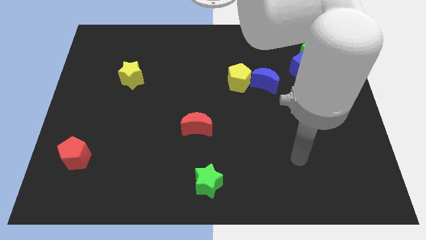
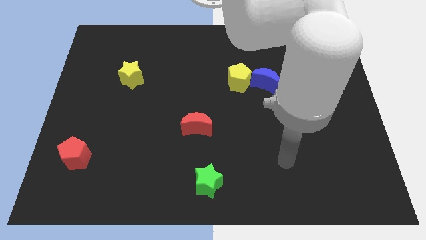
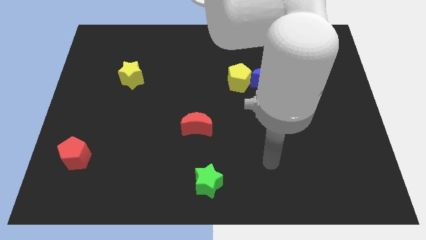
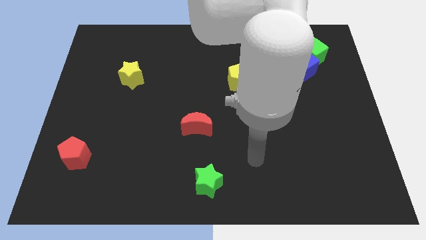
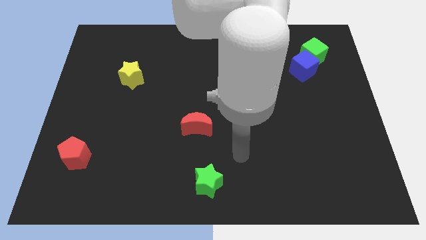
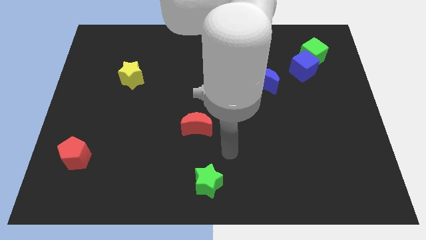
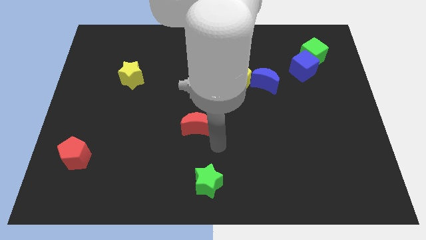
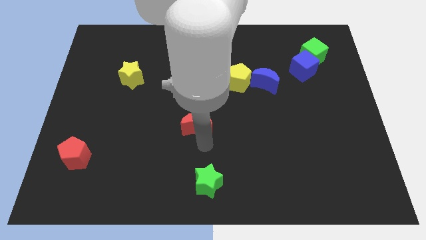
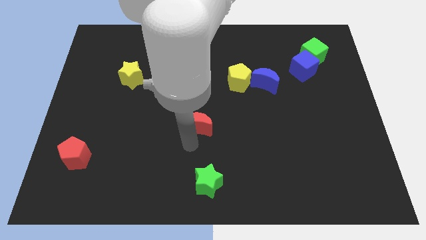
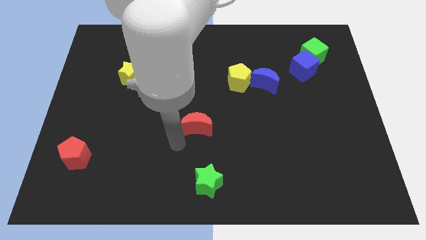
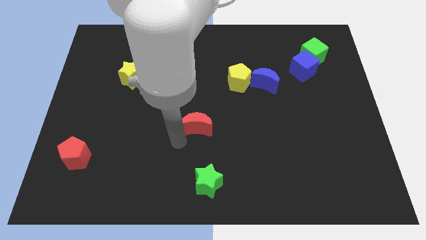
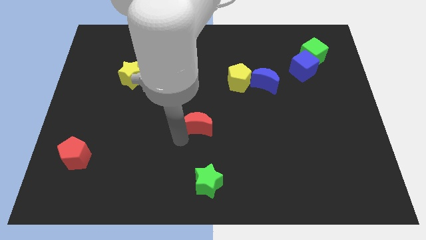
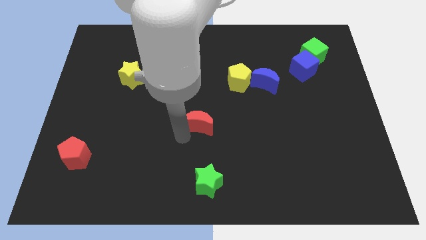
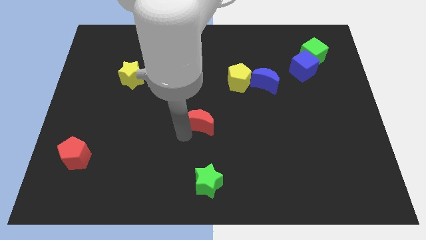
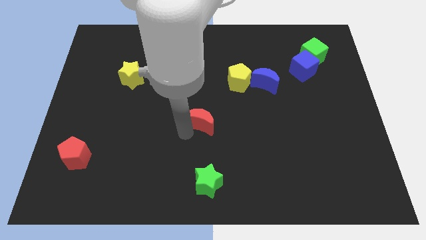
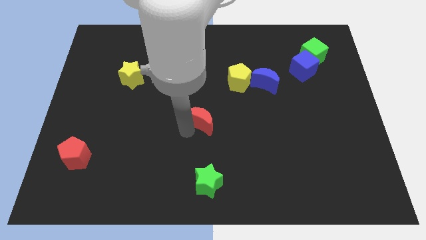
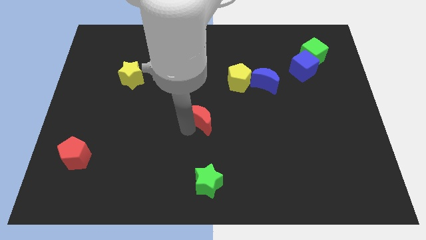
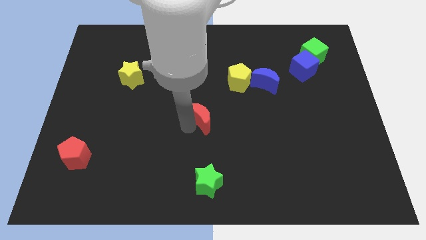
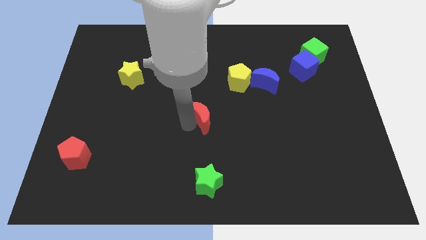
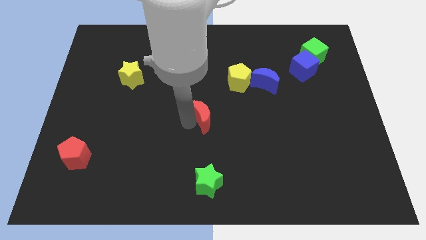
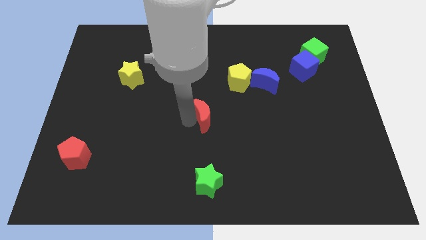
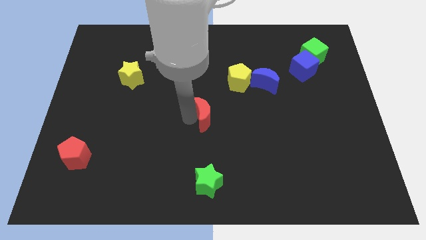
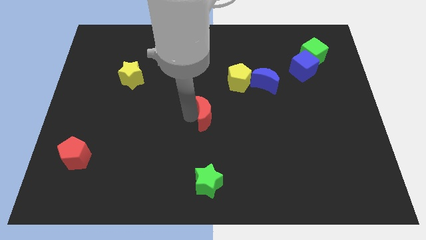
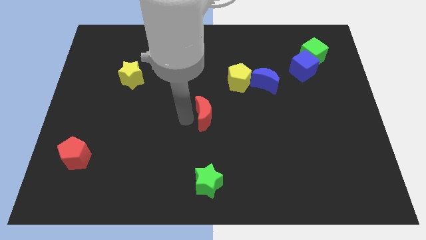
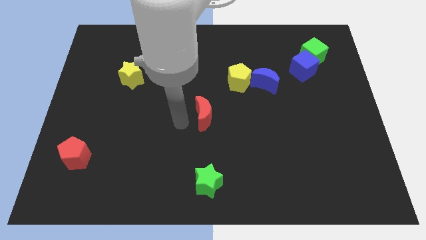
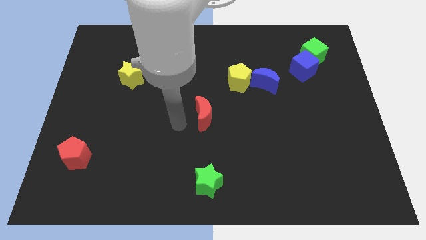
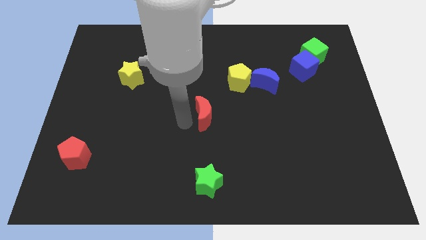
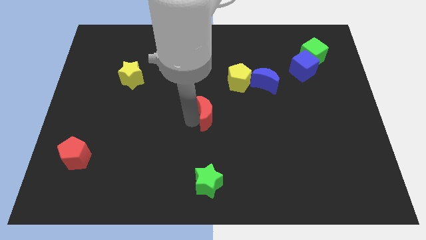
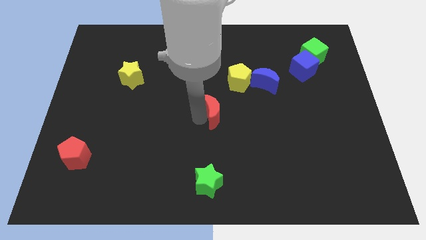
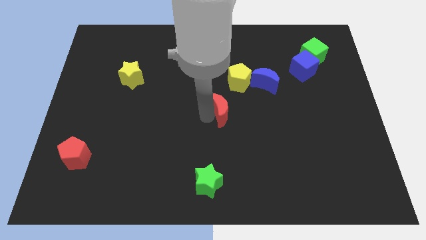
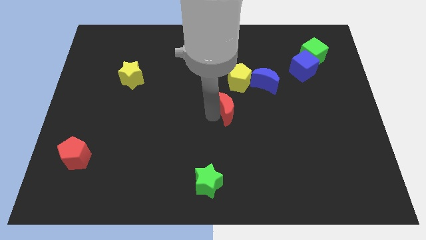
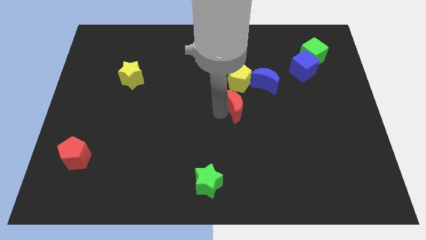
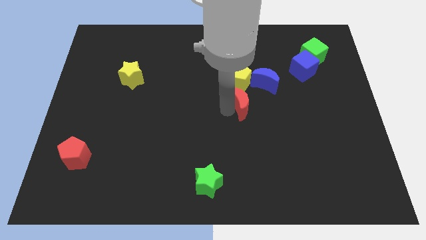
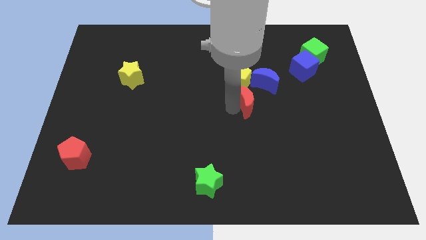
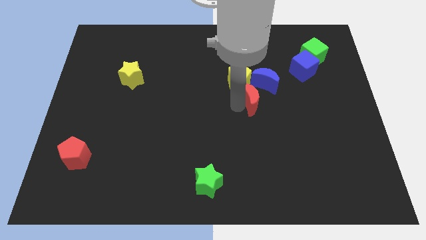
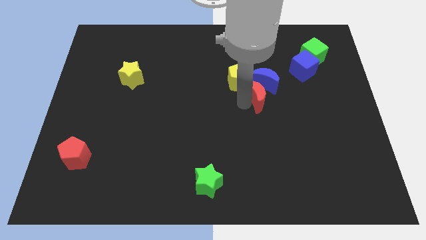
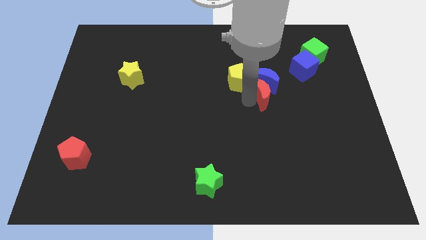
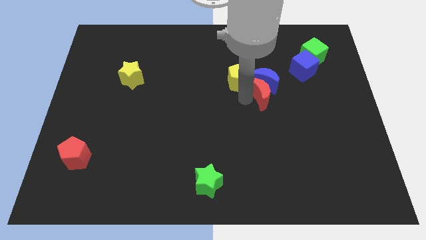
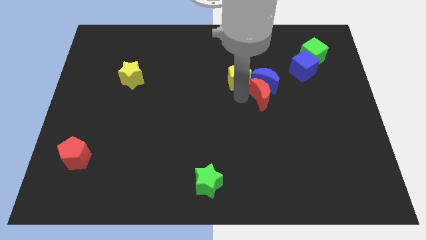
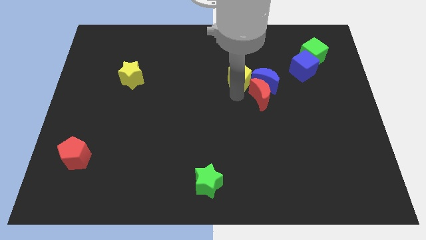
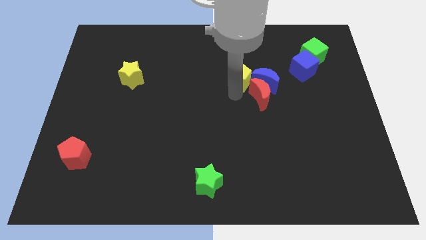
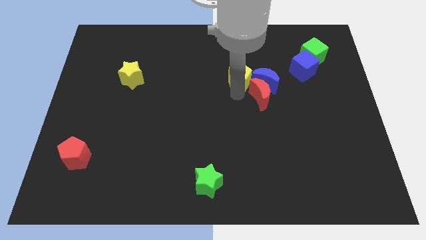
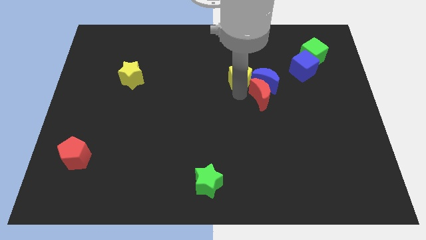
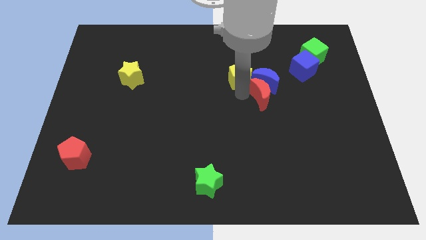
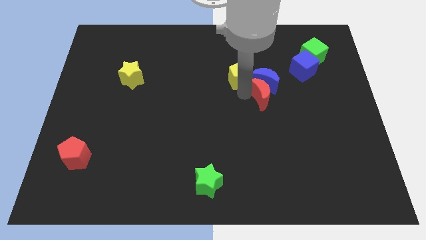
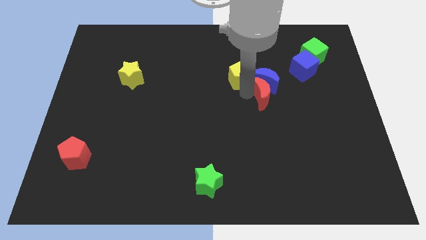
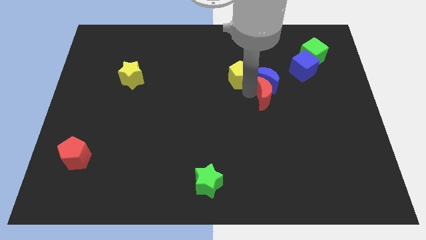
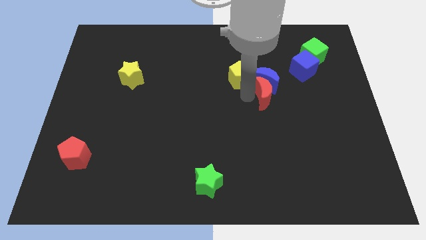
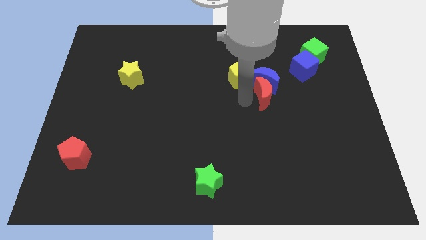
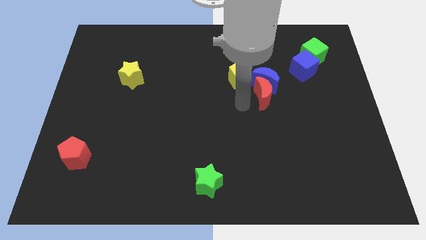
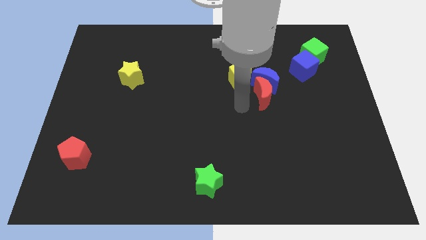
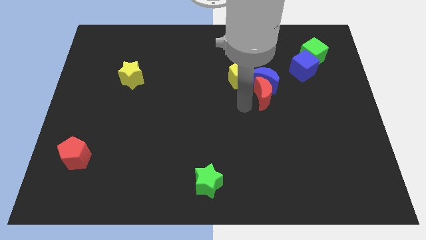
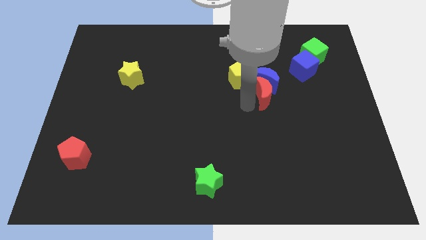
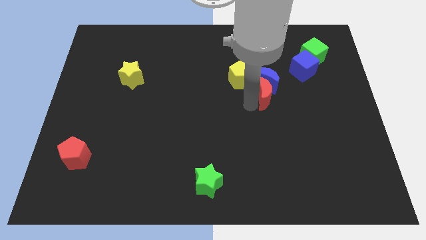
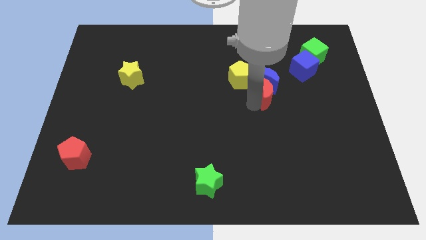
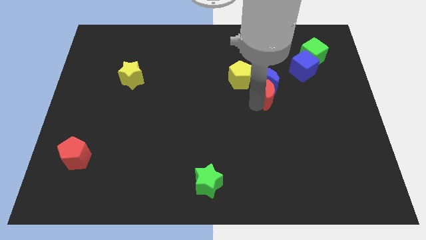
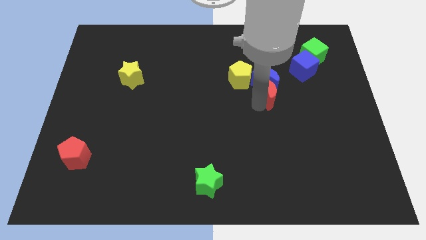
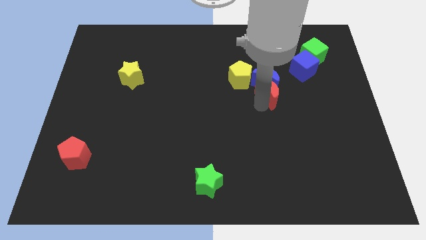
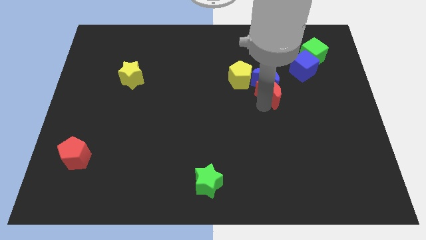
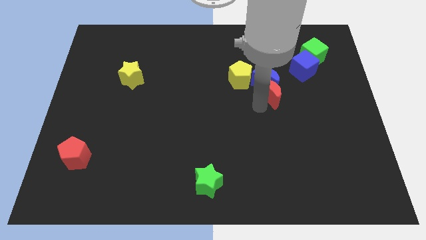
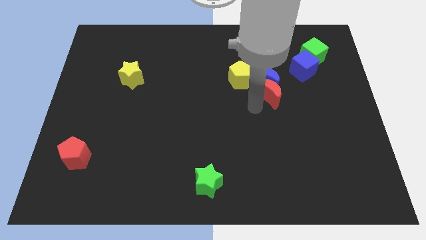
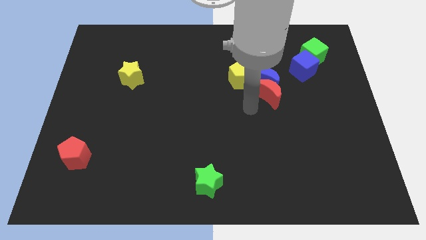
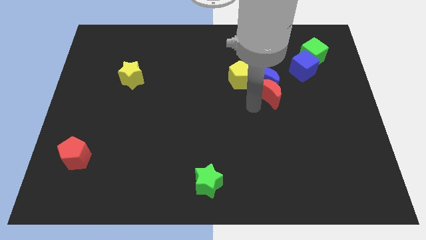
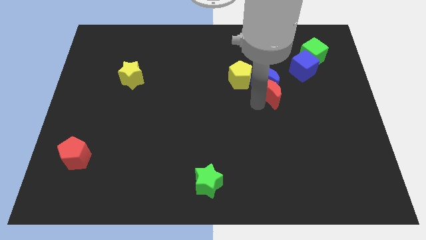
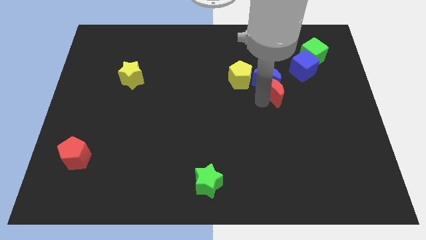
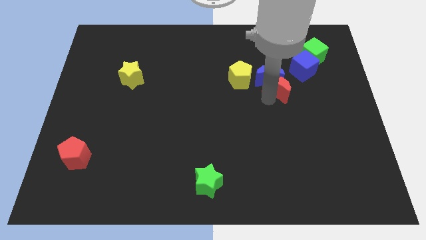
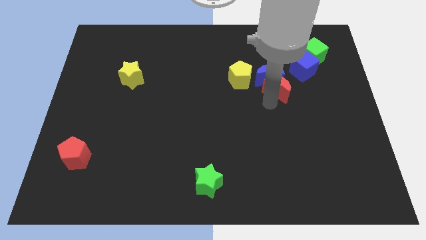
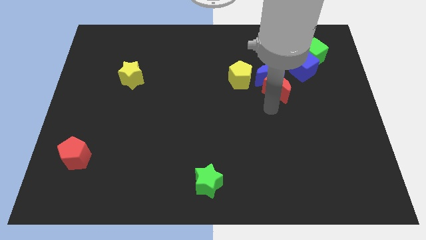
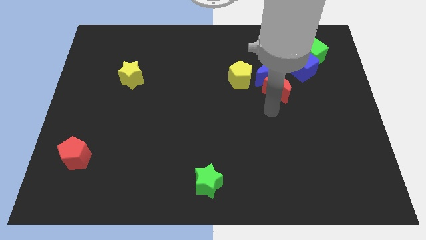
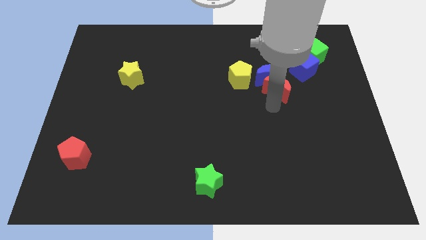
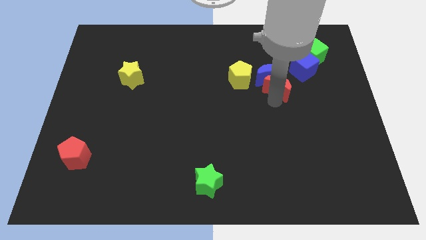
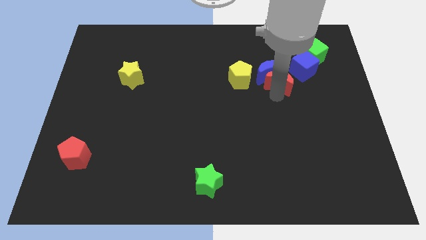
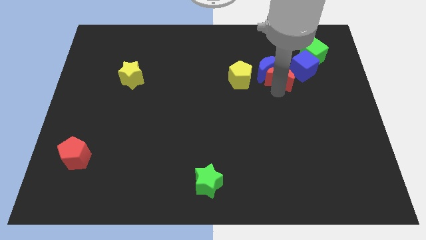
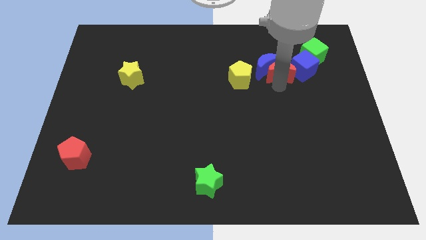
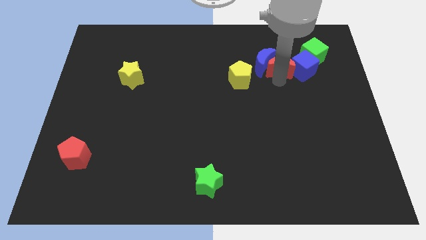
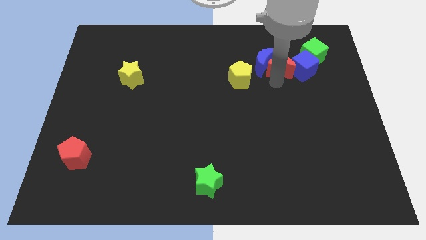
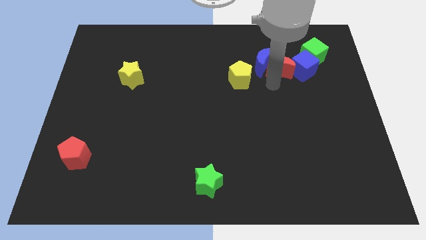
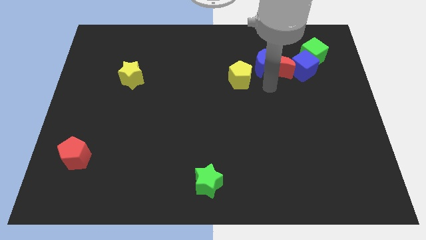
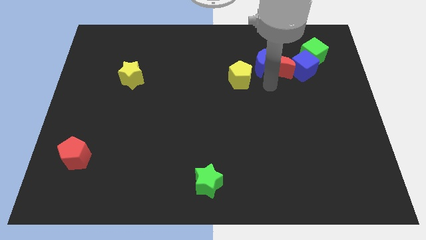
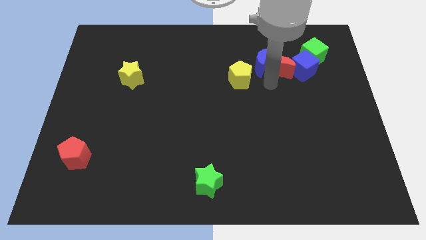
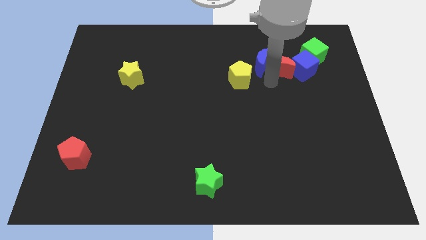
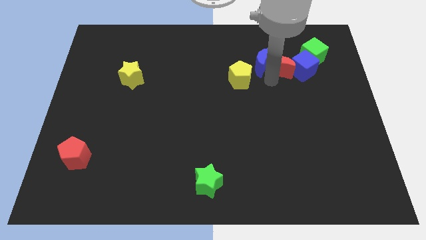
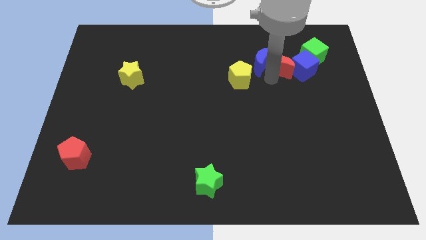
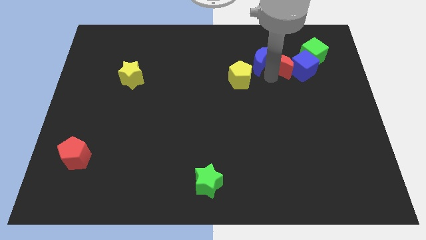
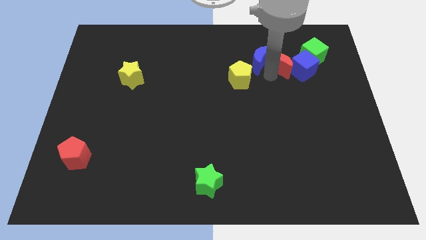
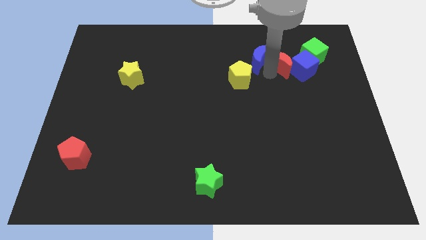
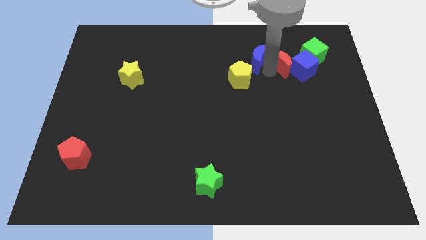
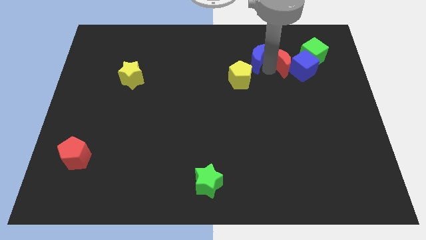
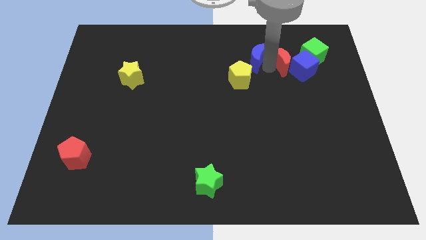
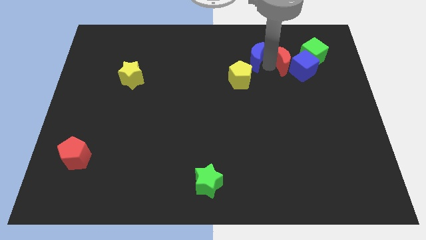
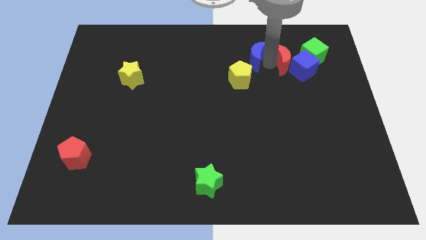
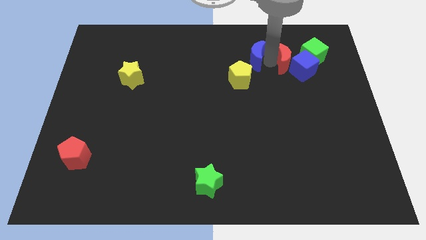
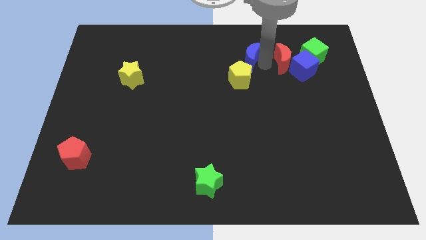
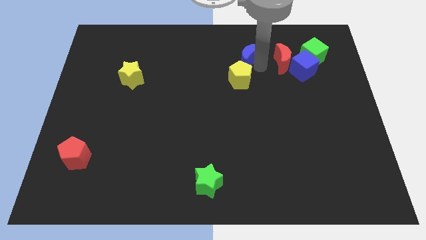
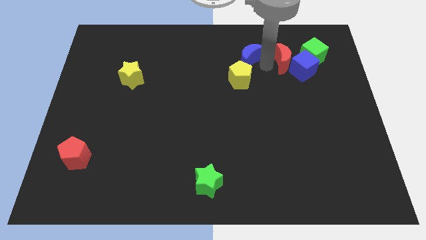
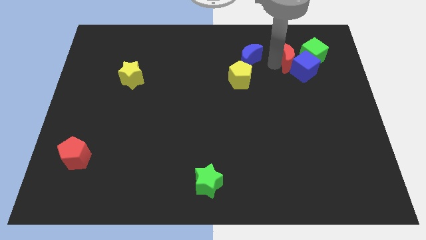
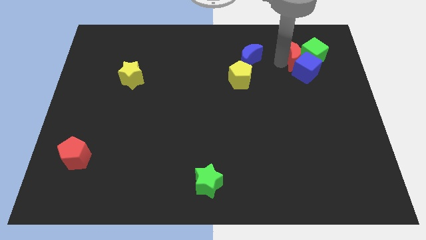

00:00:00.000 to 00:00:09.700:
slide the red moon close to the green cube
